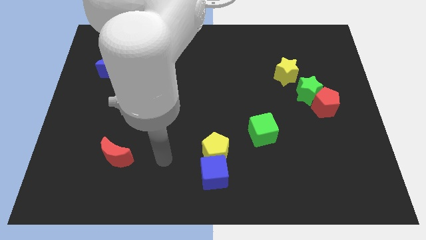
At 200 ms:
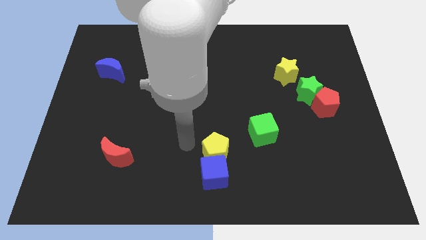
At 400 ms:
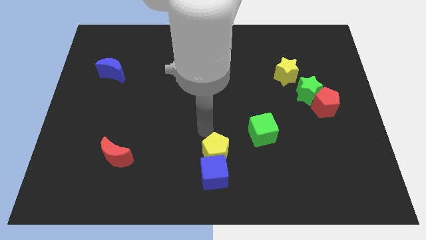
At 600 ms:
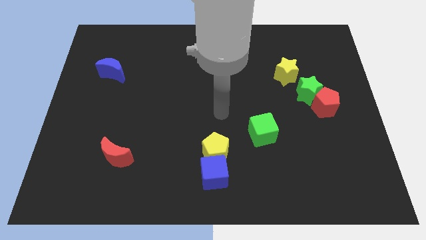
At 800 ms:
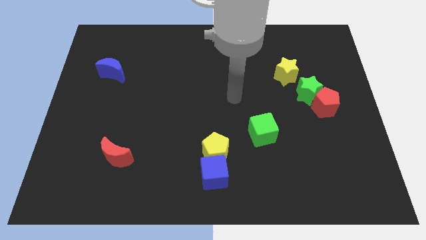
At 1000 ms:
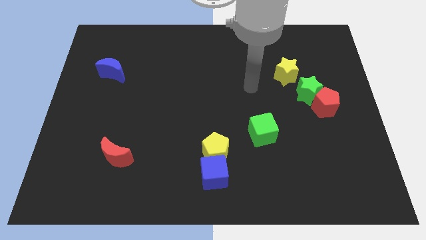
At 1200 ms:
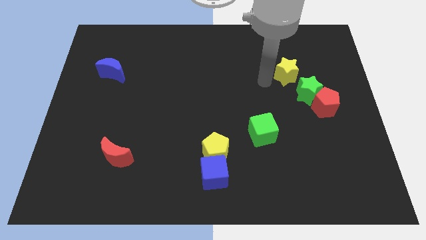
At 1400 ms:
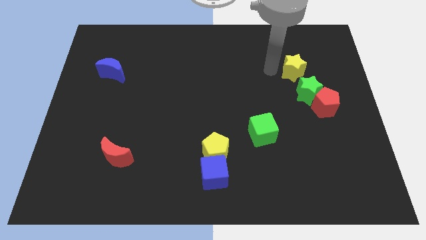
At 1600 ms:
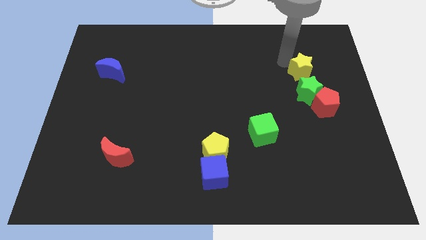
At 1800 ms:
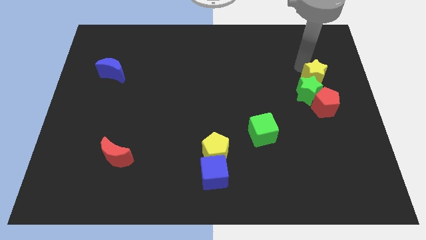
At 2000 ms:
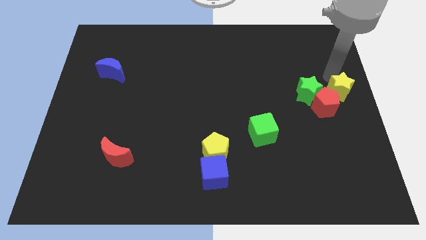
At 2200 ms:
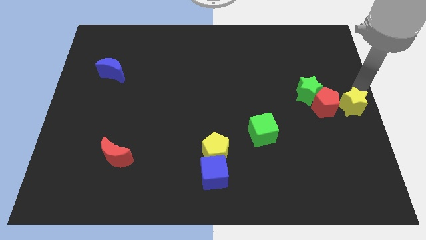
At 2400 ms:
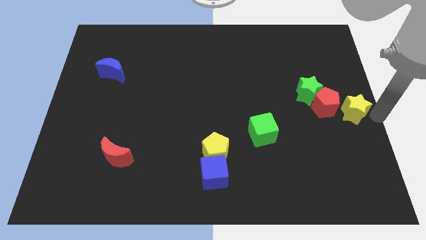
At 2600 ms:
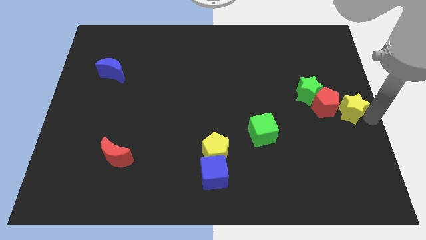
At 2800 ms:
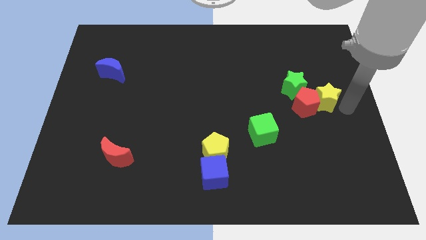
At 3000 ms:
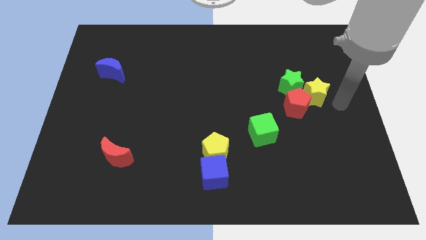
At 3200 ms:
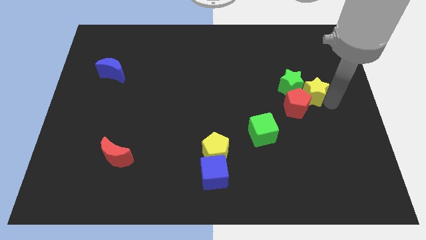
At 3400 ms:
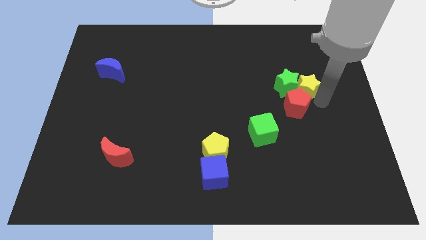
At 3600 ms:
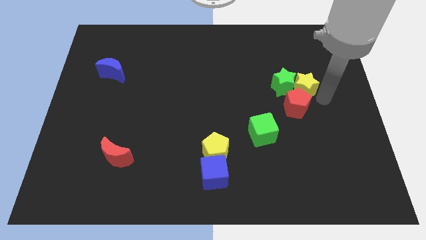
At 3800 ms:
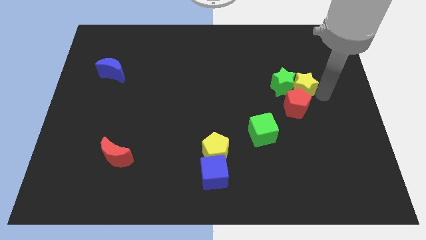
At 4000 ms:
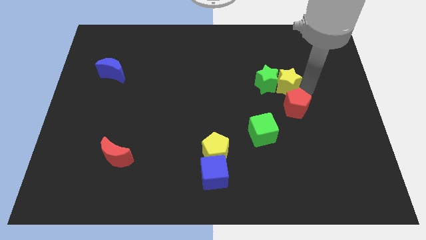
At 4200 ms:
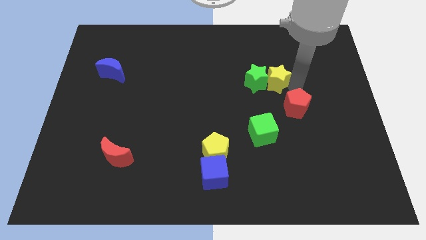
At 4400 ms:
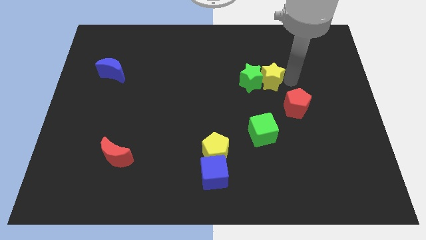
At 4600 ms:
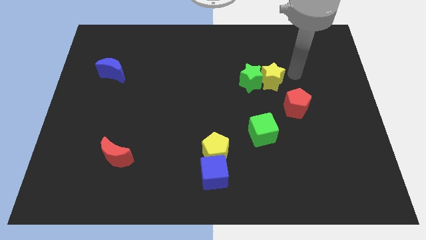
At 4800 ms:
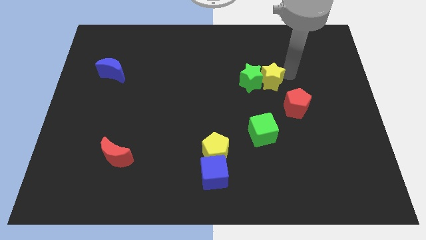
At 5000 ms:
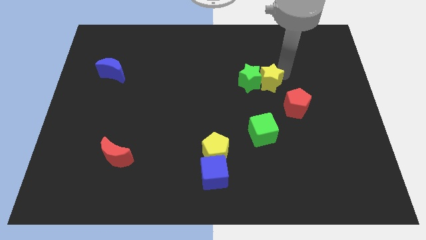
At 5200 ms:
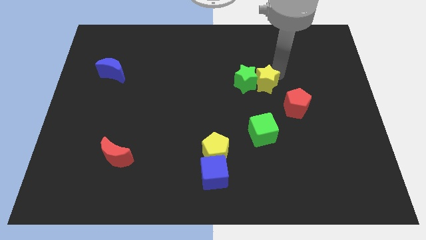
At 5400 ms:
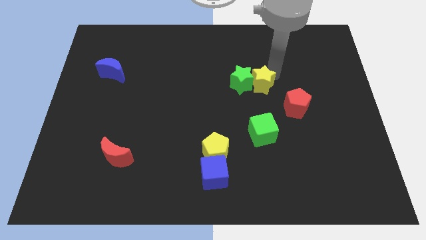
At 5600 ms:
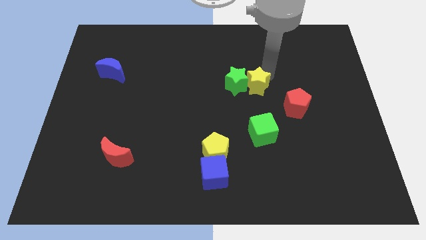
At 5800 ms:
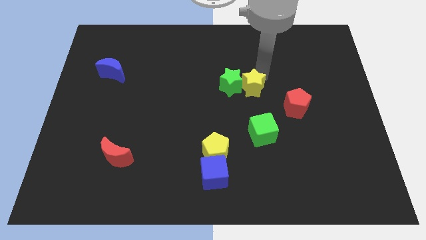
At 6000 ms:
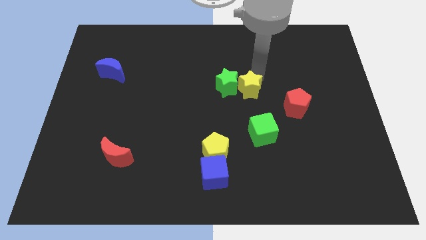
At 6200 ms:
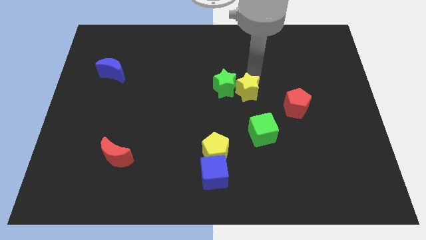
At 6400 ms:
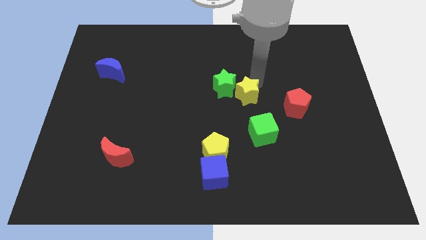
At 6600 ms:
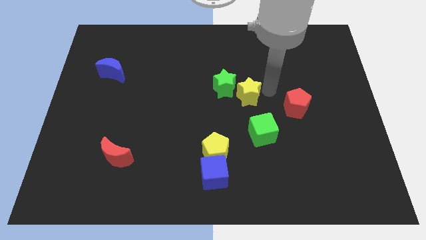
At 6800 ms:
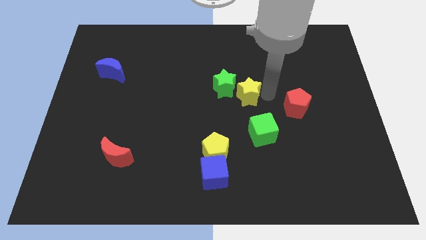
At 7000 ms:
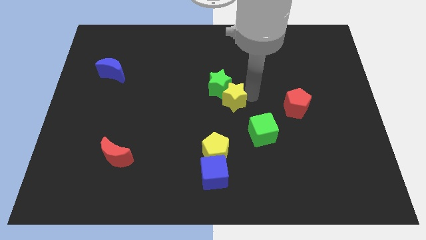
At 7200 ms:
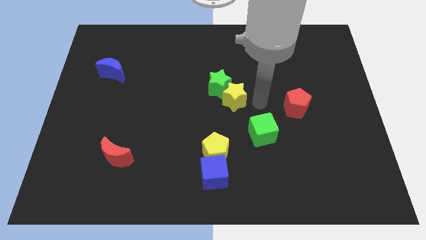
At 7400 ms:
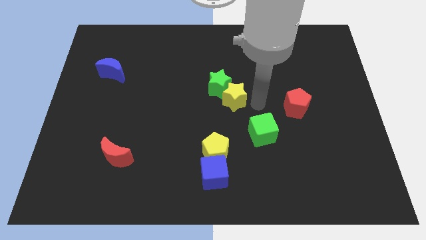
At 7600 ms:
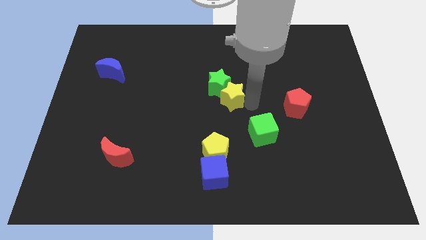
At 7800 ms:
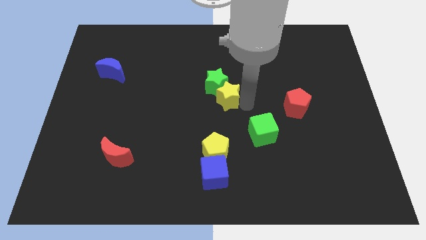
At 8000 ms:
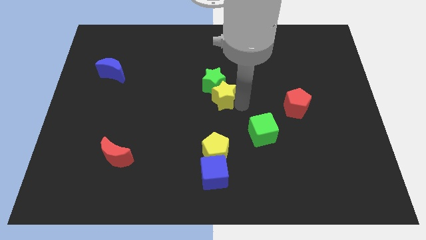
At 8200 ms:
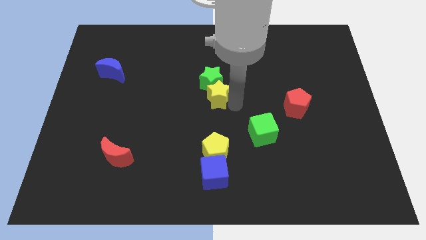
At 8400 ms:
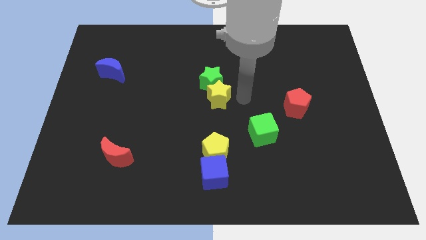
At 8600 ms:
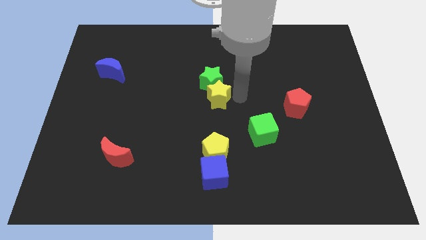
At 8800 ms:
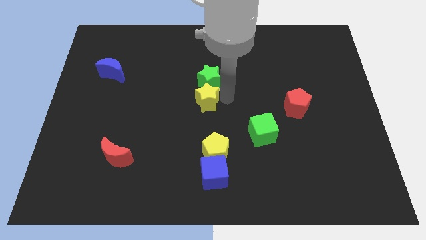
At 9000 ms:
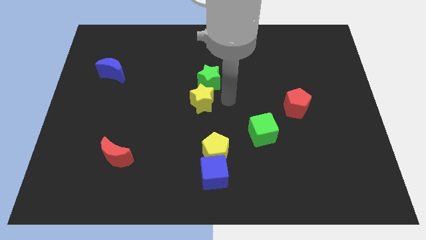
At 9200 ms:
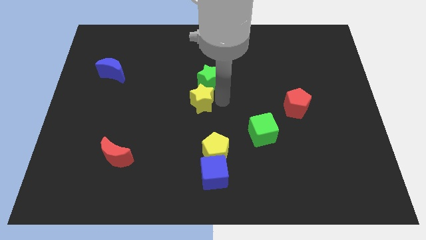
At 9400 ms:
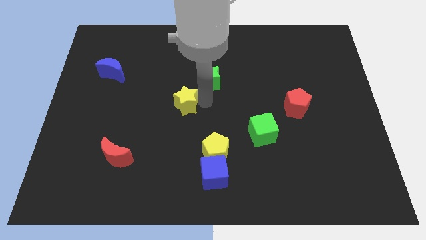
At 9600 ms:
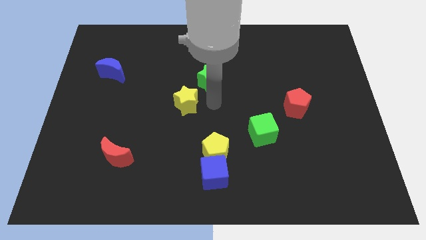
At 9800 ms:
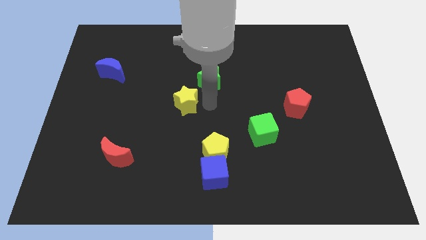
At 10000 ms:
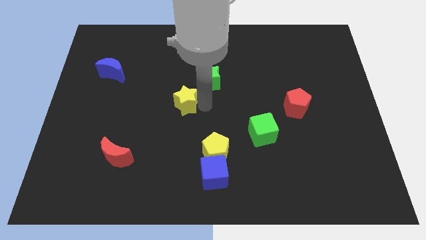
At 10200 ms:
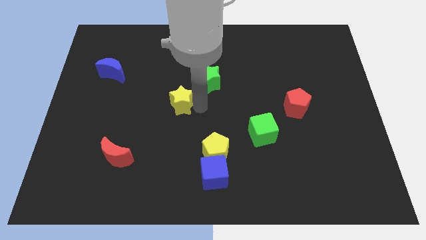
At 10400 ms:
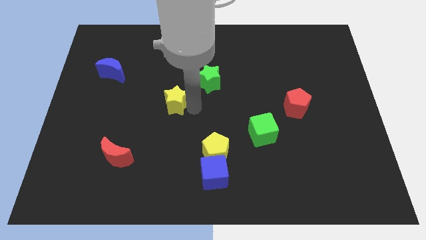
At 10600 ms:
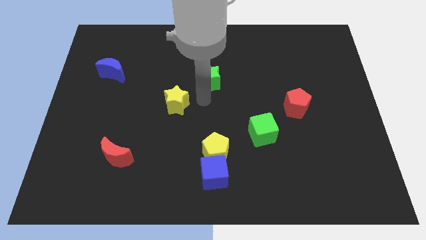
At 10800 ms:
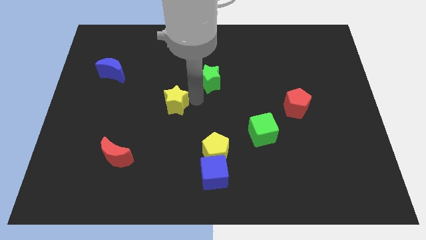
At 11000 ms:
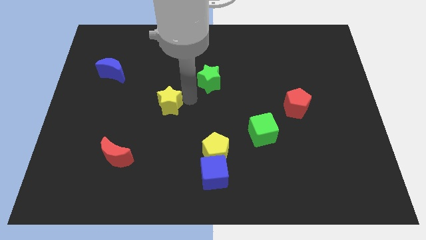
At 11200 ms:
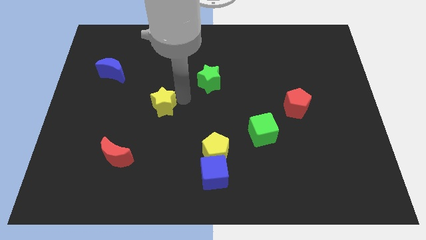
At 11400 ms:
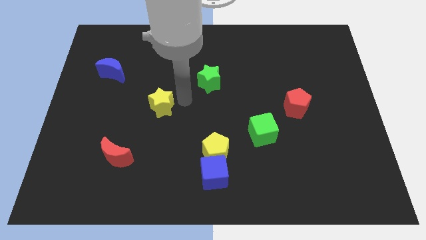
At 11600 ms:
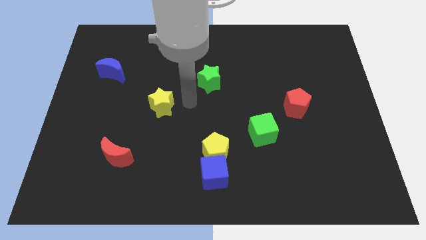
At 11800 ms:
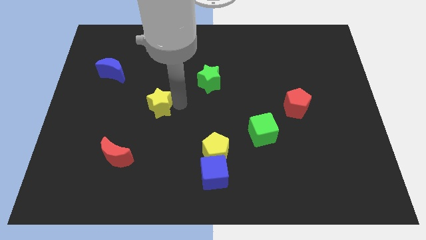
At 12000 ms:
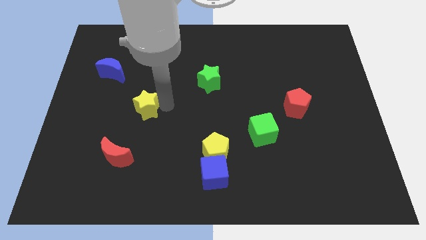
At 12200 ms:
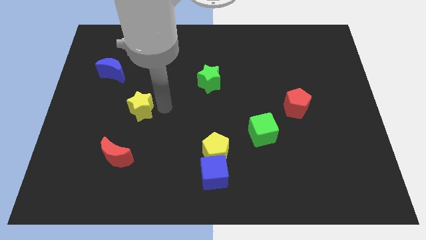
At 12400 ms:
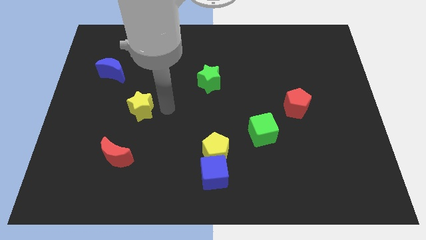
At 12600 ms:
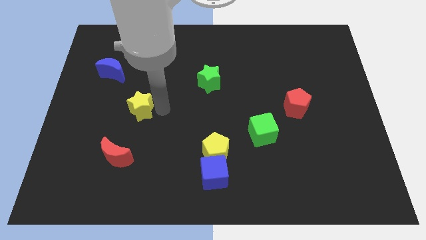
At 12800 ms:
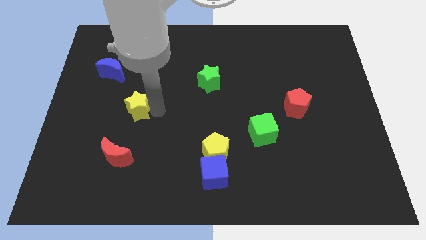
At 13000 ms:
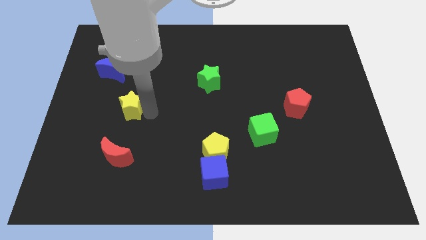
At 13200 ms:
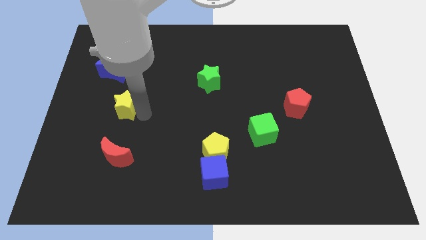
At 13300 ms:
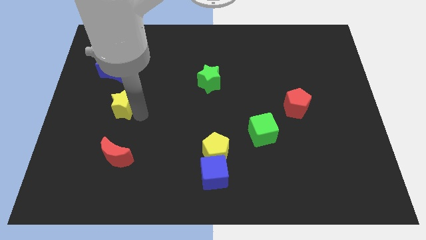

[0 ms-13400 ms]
slide the yellow star below the blue moon

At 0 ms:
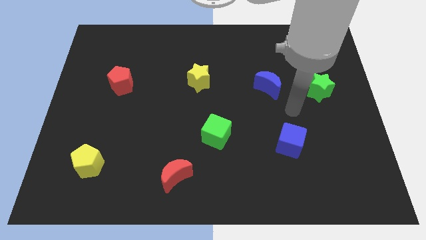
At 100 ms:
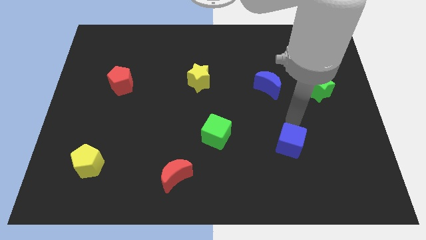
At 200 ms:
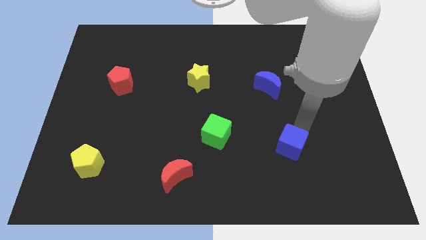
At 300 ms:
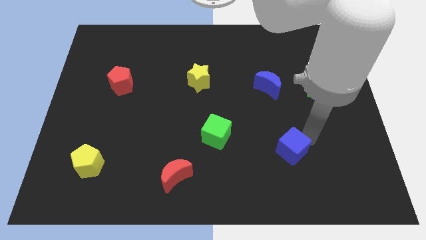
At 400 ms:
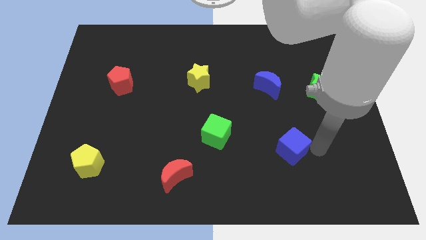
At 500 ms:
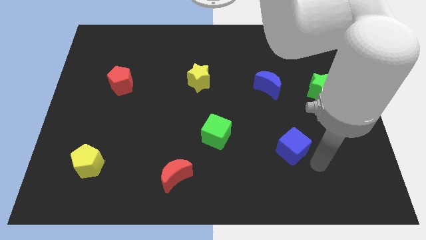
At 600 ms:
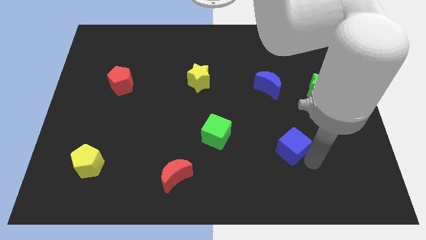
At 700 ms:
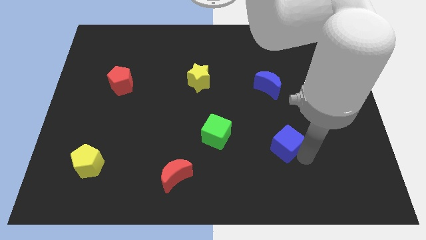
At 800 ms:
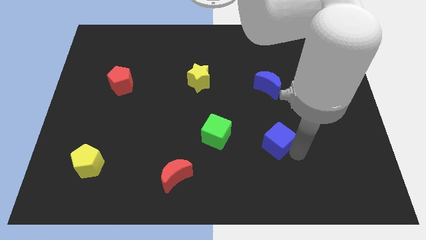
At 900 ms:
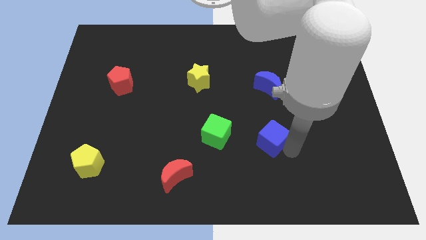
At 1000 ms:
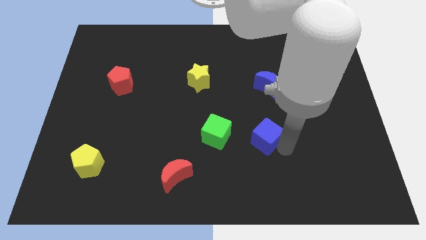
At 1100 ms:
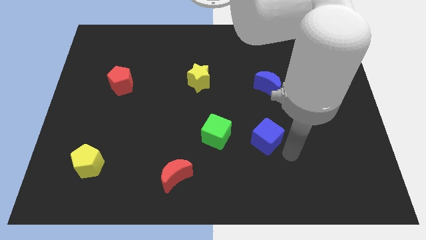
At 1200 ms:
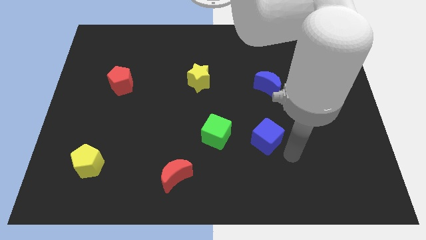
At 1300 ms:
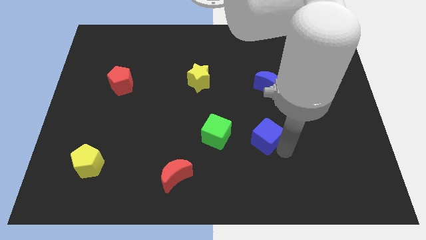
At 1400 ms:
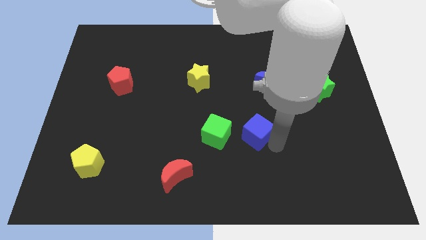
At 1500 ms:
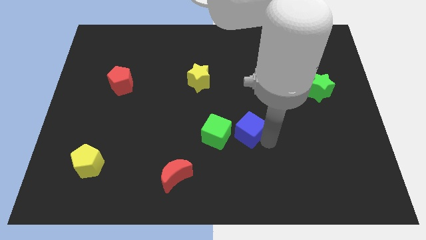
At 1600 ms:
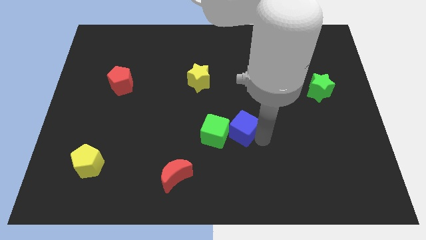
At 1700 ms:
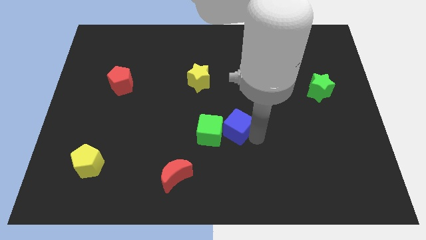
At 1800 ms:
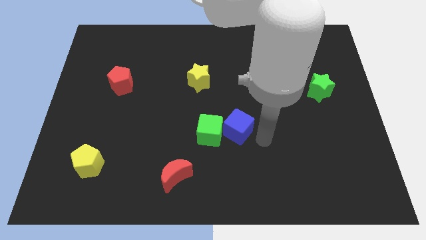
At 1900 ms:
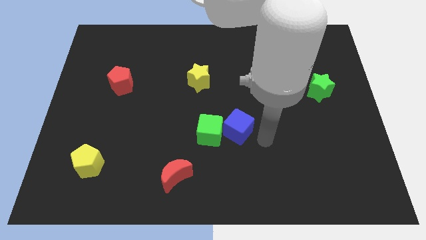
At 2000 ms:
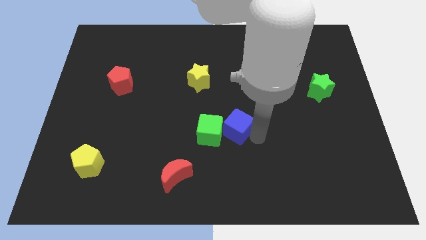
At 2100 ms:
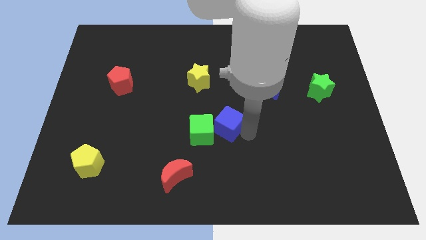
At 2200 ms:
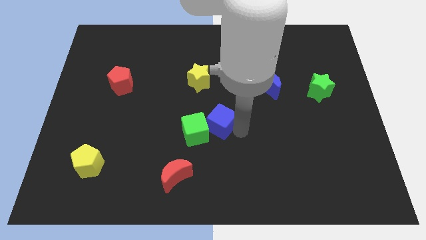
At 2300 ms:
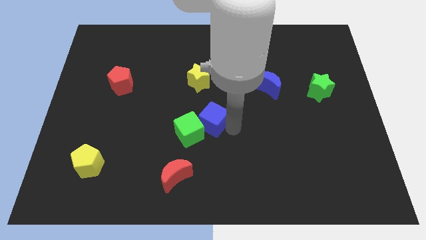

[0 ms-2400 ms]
slide the blue cube to the bottom side of the yellow star
